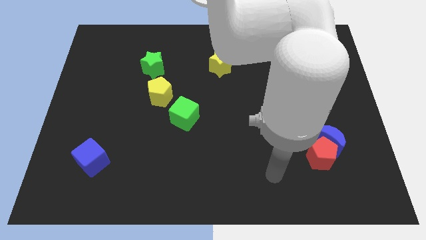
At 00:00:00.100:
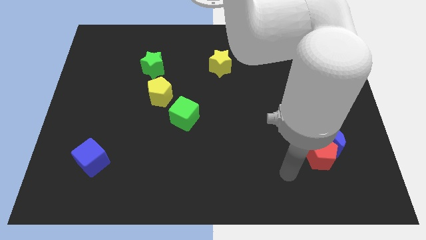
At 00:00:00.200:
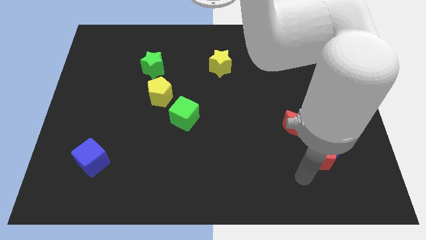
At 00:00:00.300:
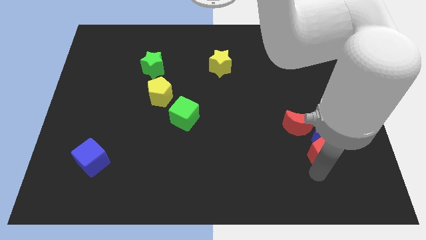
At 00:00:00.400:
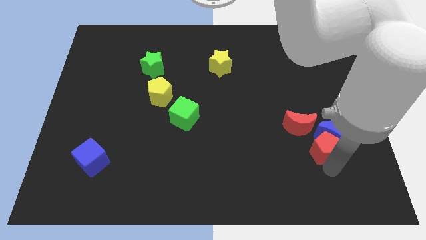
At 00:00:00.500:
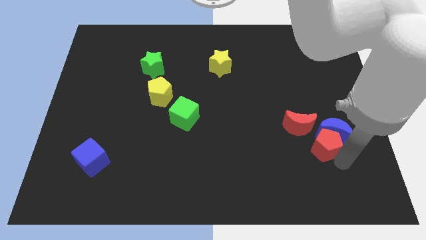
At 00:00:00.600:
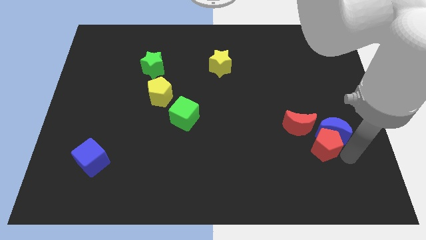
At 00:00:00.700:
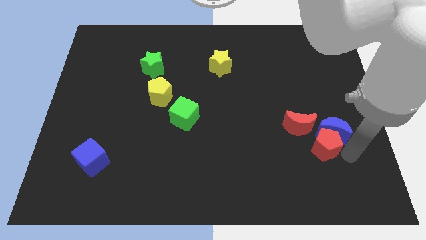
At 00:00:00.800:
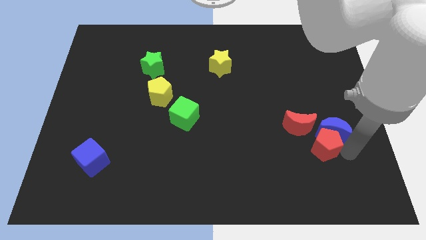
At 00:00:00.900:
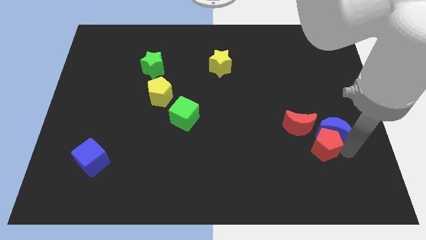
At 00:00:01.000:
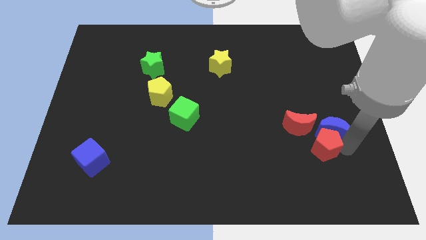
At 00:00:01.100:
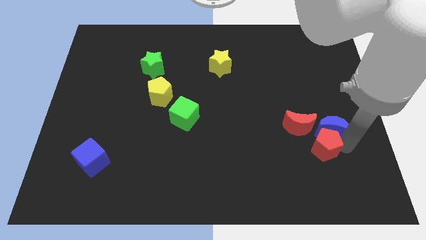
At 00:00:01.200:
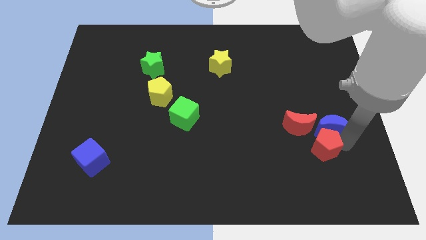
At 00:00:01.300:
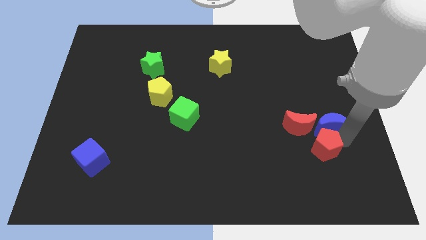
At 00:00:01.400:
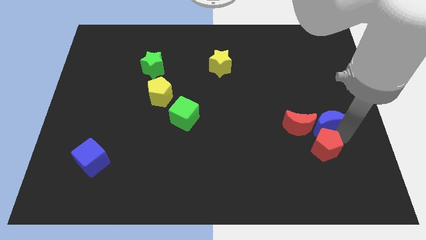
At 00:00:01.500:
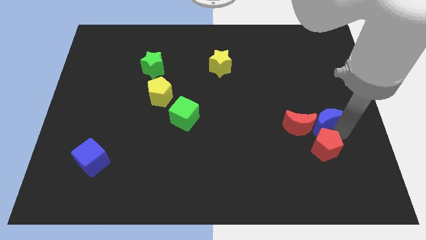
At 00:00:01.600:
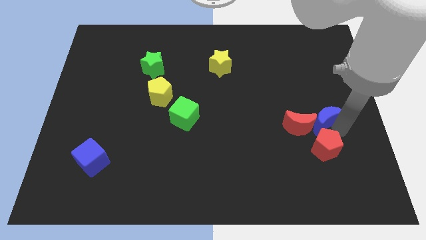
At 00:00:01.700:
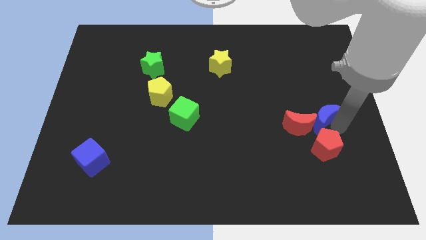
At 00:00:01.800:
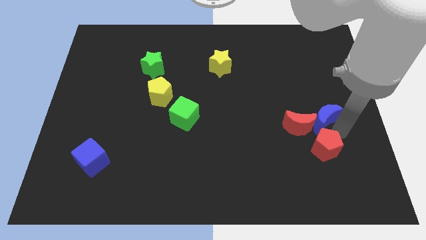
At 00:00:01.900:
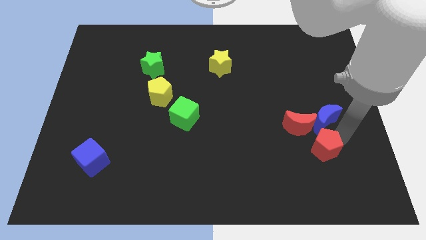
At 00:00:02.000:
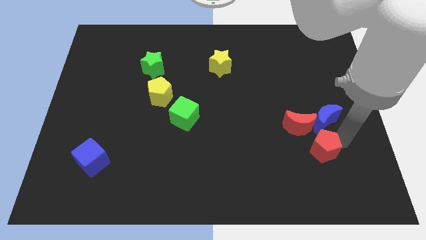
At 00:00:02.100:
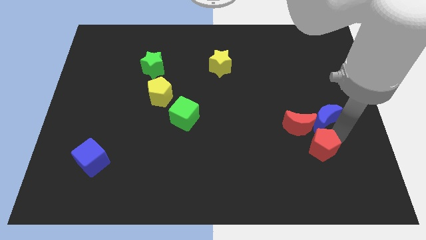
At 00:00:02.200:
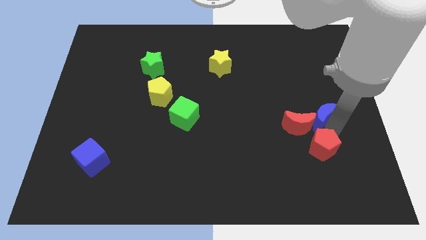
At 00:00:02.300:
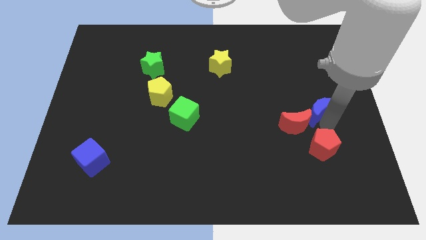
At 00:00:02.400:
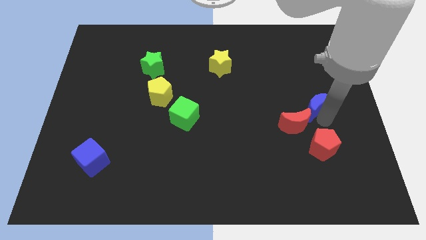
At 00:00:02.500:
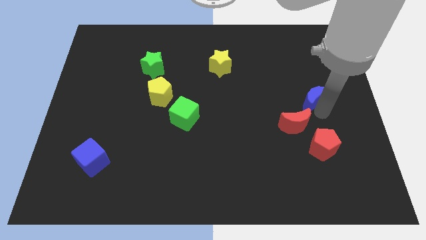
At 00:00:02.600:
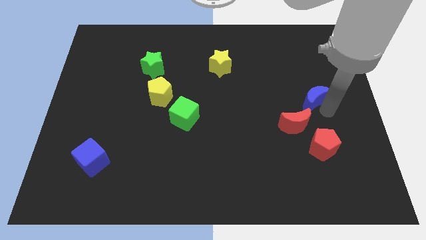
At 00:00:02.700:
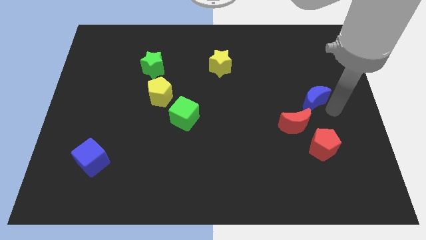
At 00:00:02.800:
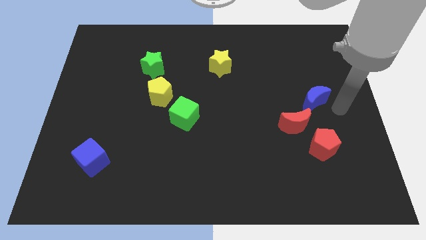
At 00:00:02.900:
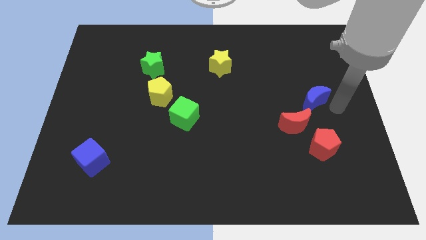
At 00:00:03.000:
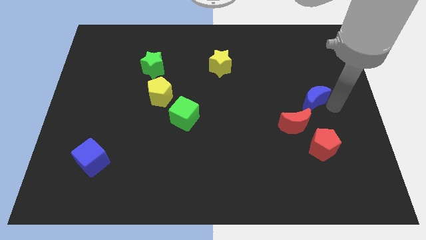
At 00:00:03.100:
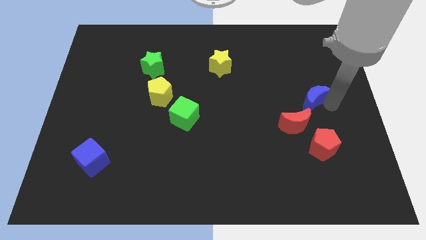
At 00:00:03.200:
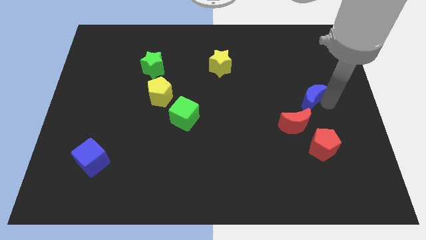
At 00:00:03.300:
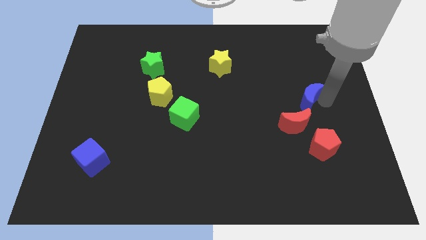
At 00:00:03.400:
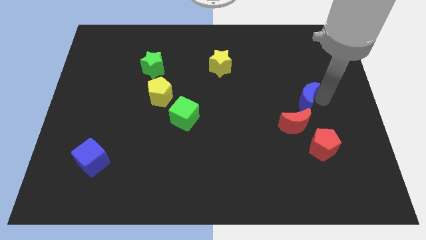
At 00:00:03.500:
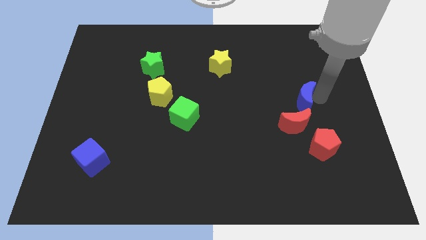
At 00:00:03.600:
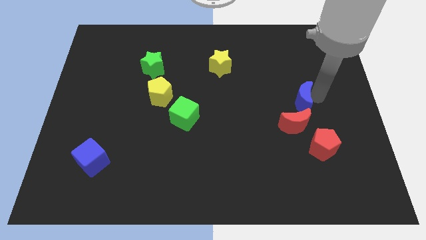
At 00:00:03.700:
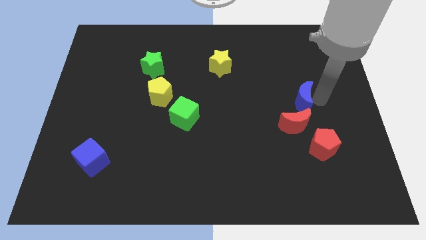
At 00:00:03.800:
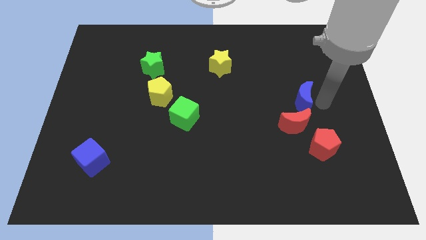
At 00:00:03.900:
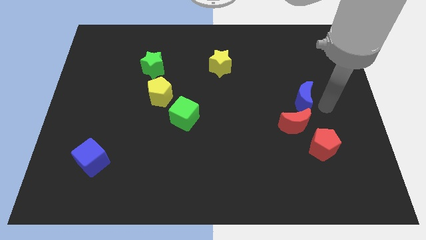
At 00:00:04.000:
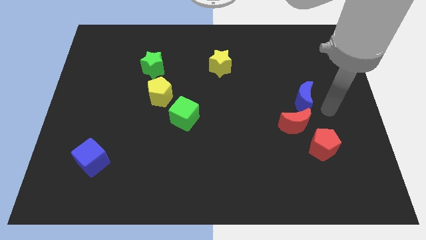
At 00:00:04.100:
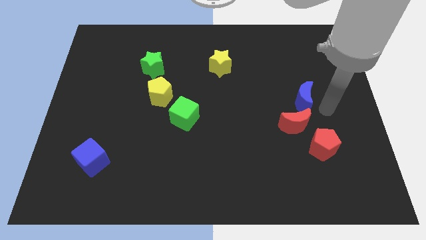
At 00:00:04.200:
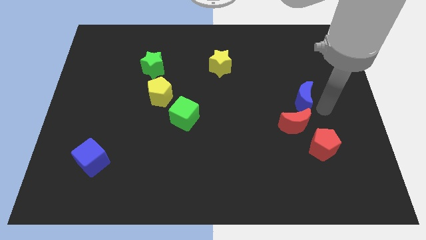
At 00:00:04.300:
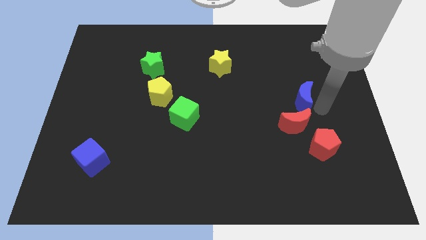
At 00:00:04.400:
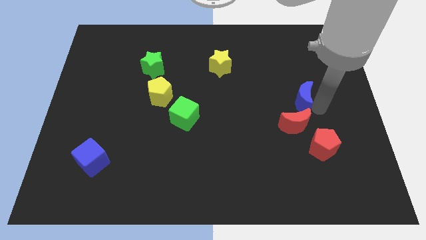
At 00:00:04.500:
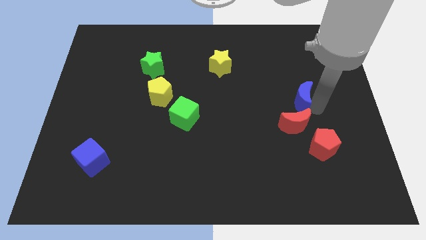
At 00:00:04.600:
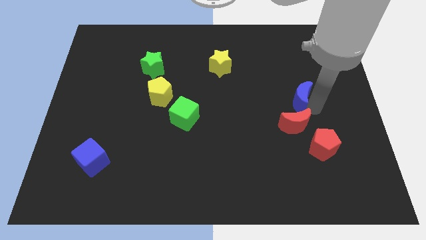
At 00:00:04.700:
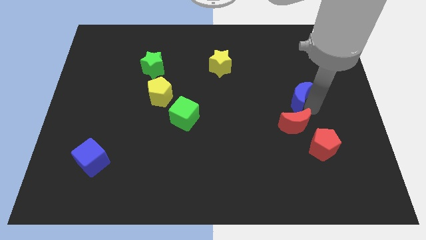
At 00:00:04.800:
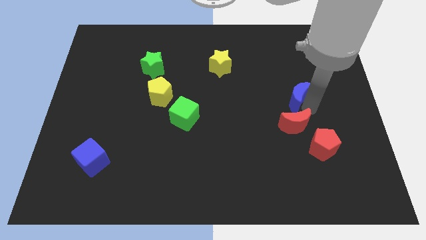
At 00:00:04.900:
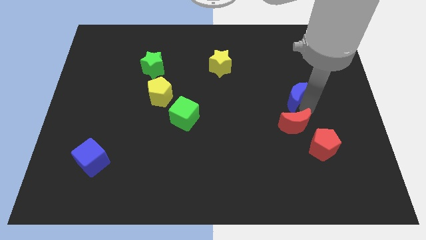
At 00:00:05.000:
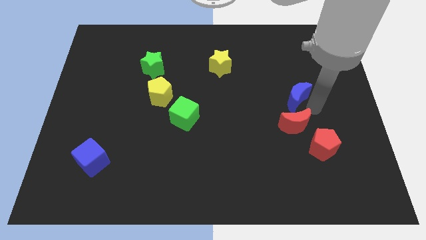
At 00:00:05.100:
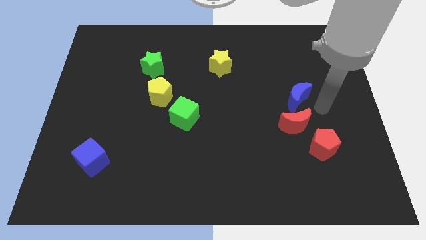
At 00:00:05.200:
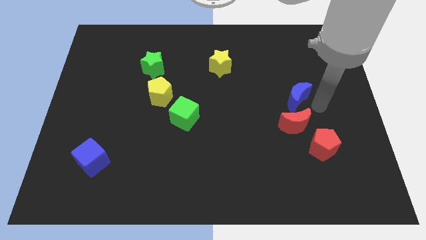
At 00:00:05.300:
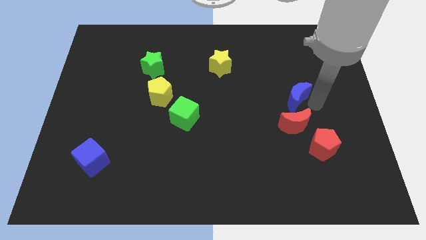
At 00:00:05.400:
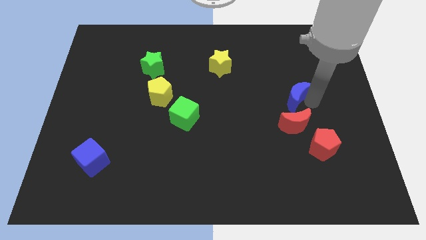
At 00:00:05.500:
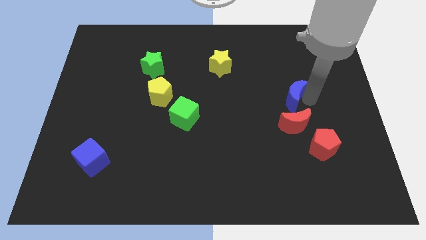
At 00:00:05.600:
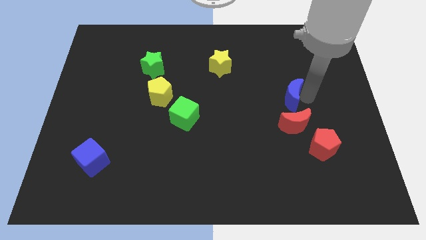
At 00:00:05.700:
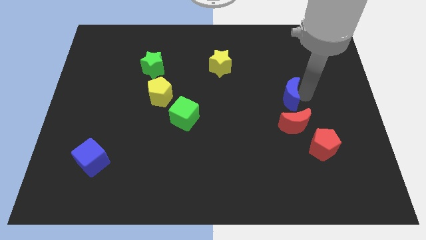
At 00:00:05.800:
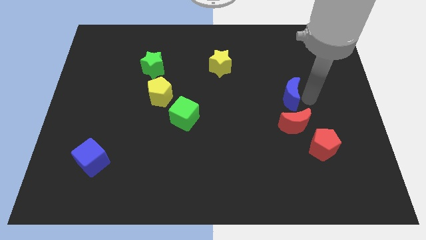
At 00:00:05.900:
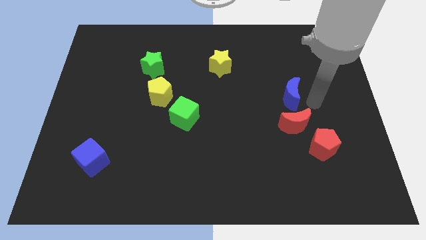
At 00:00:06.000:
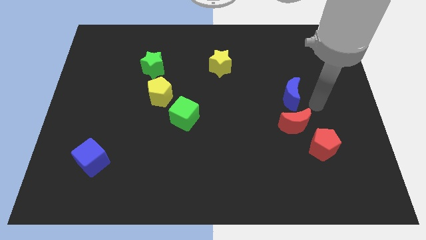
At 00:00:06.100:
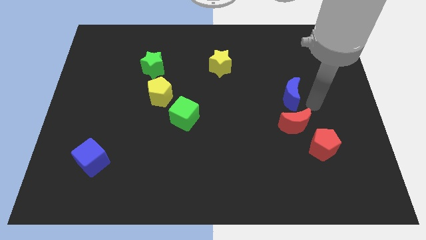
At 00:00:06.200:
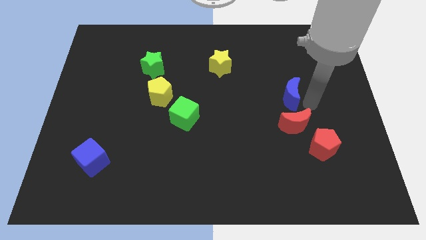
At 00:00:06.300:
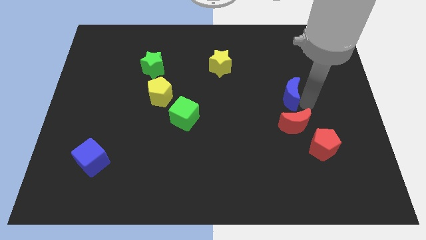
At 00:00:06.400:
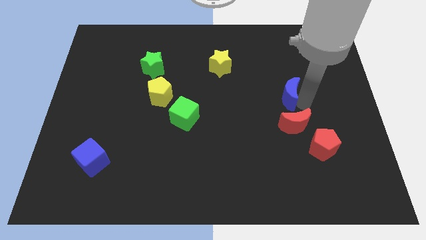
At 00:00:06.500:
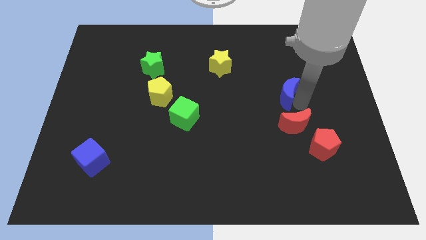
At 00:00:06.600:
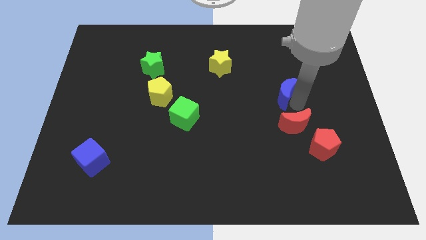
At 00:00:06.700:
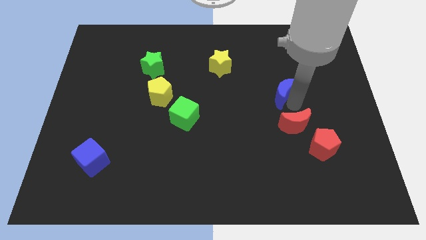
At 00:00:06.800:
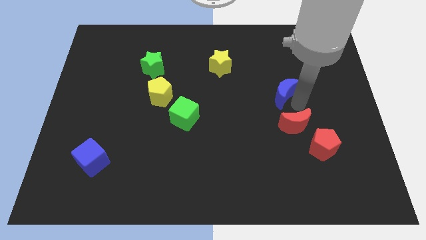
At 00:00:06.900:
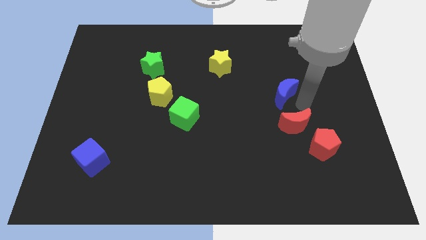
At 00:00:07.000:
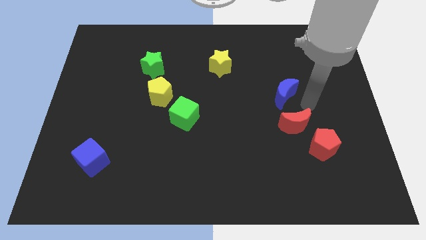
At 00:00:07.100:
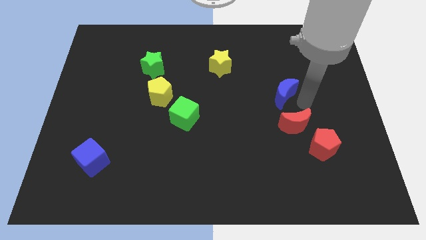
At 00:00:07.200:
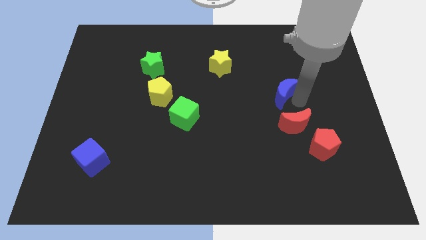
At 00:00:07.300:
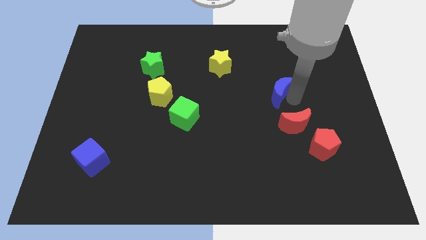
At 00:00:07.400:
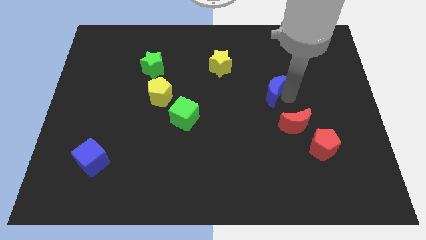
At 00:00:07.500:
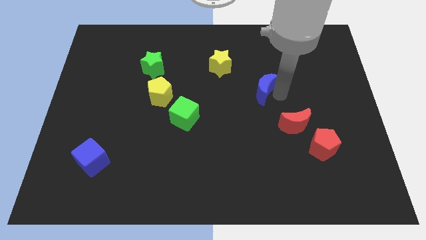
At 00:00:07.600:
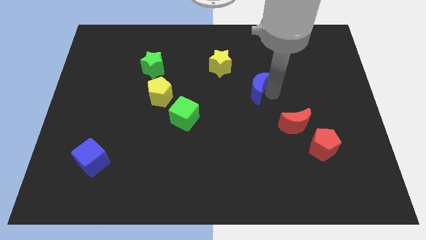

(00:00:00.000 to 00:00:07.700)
move the blue moon diagonally down and to the right of the yellow star
